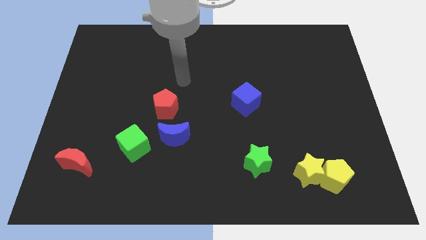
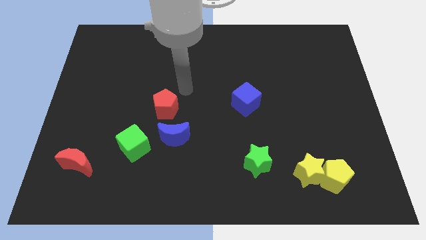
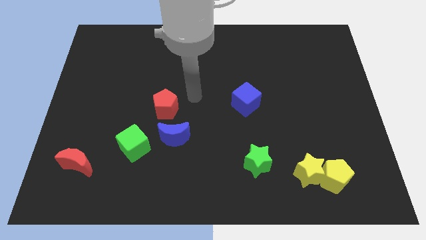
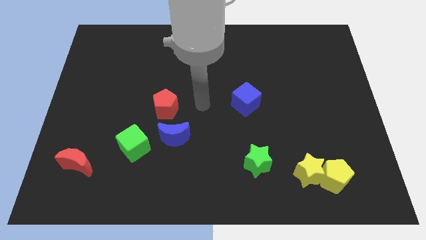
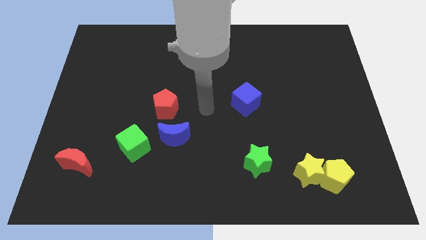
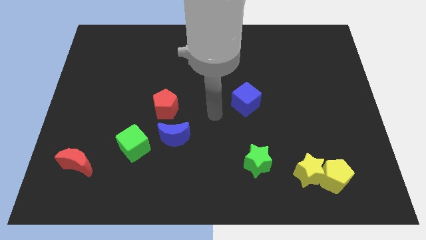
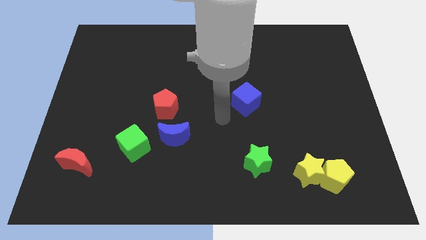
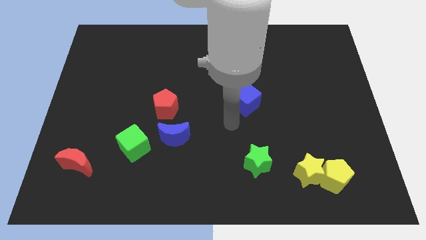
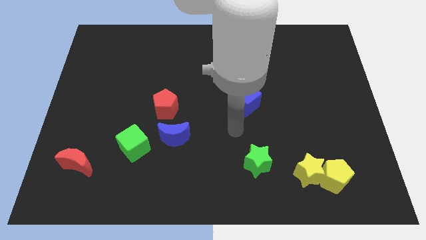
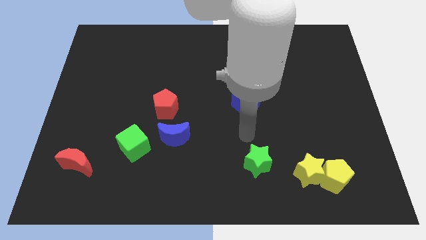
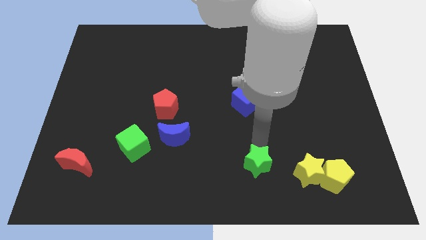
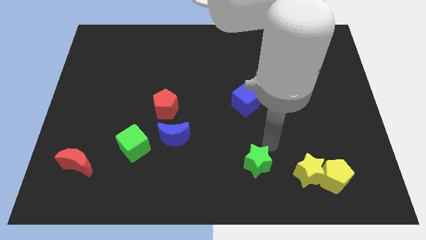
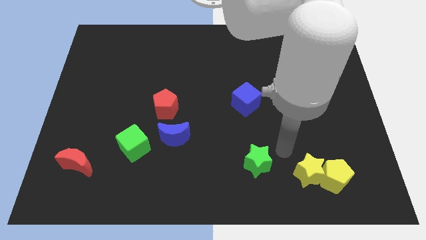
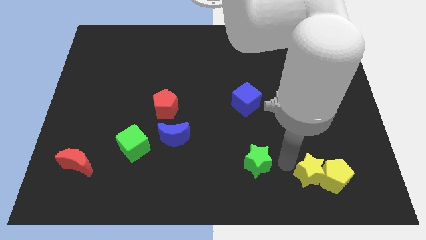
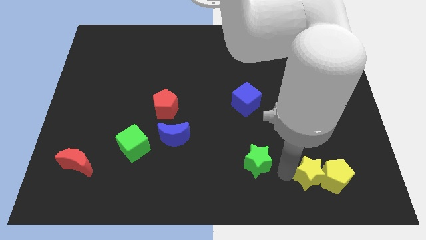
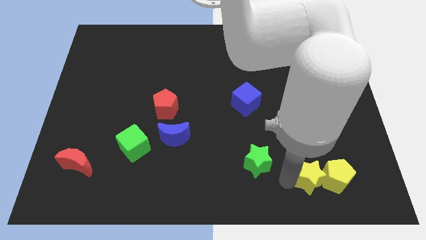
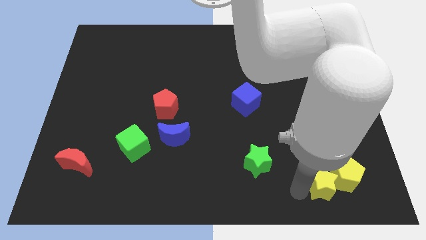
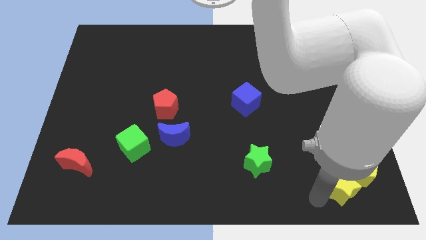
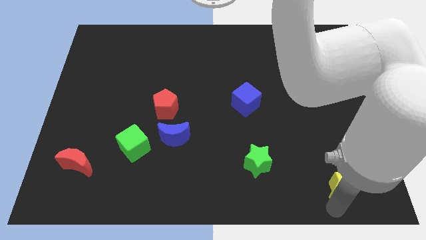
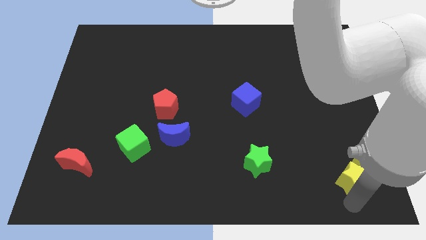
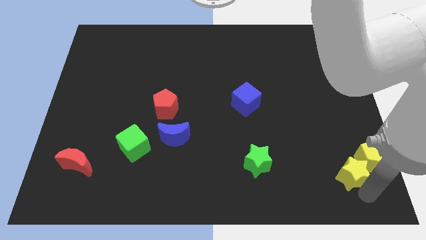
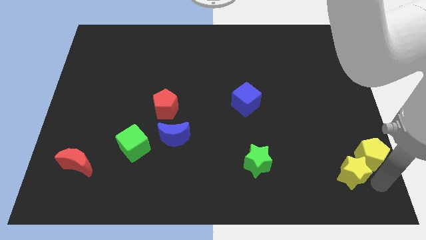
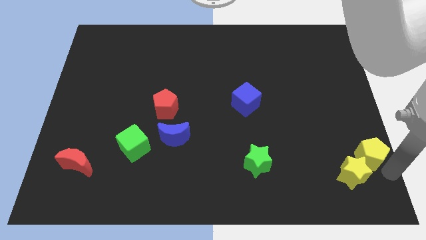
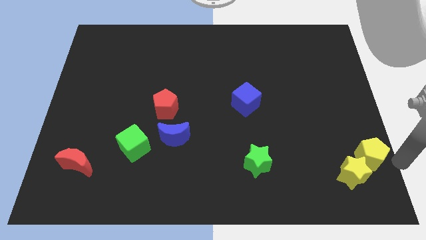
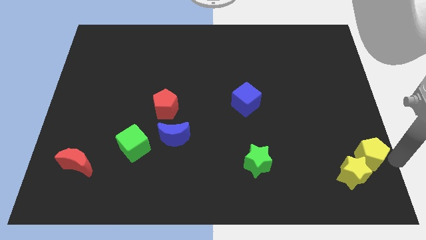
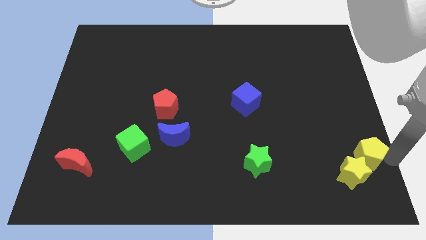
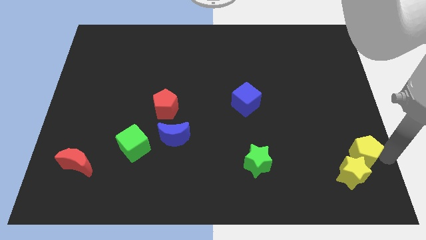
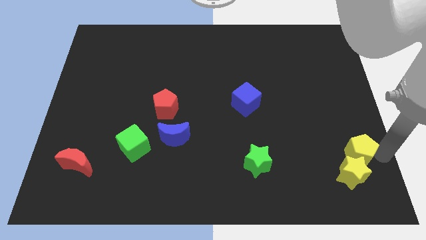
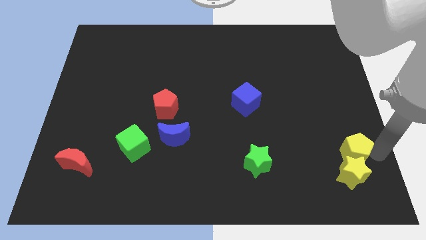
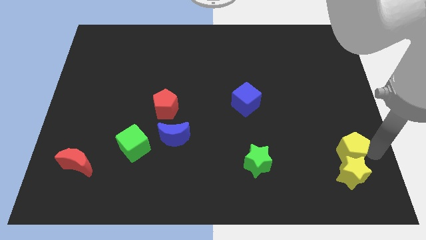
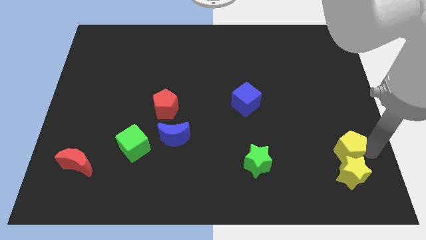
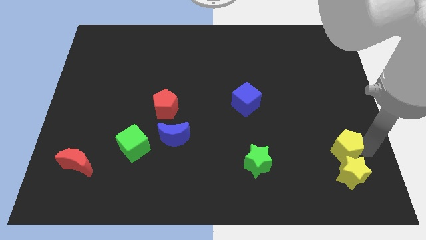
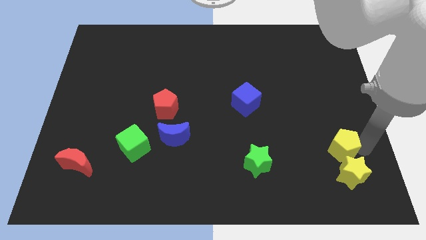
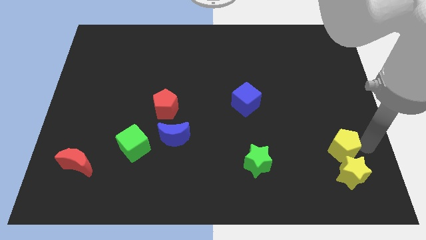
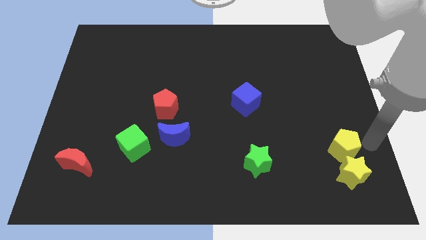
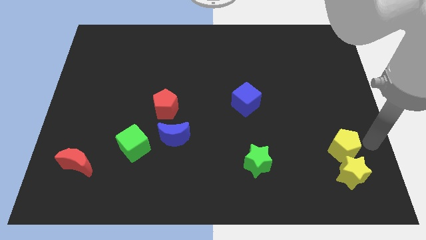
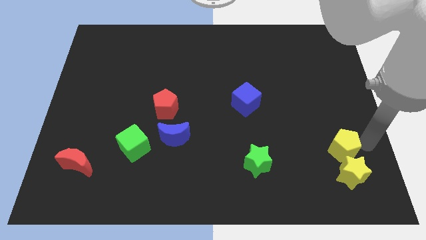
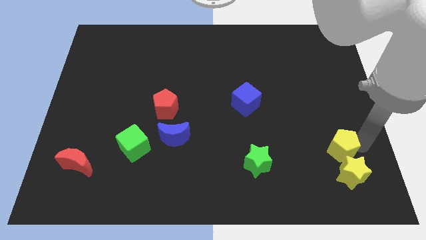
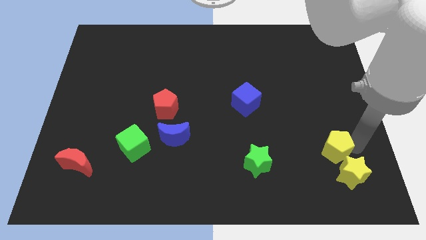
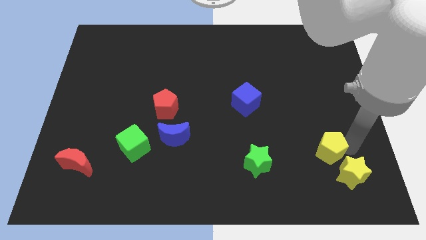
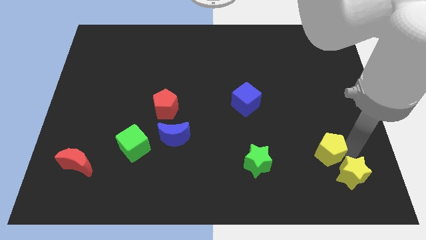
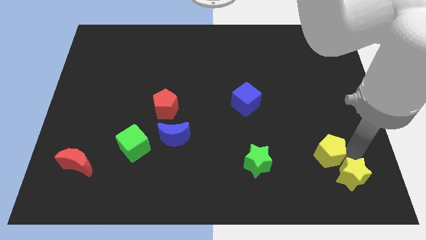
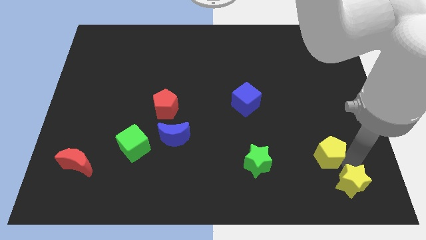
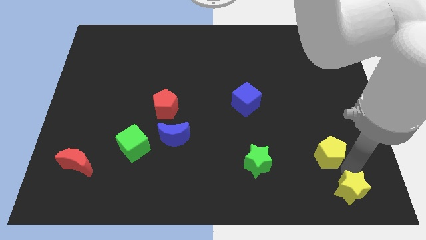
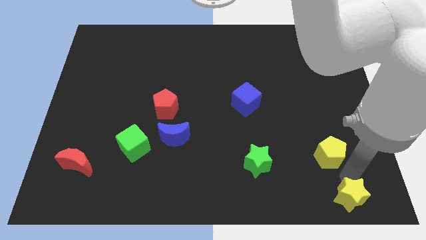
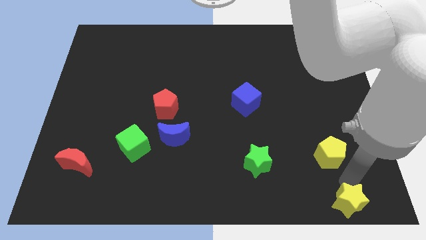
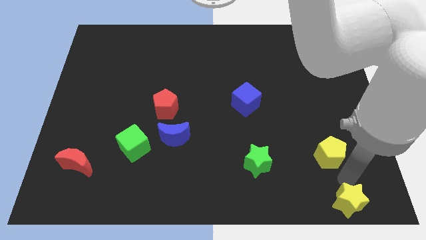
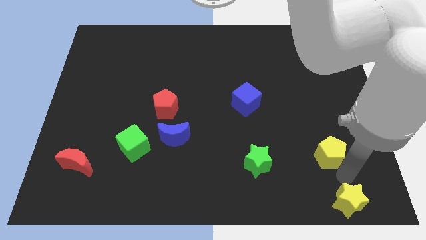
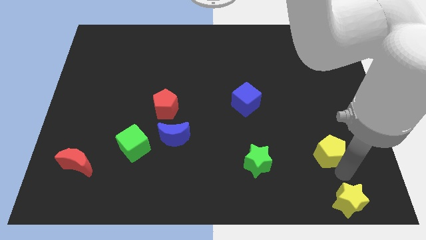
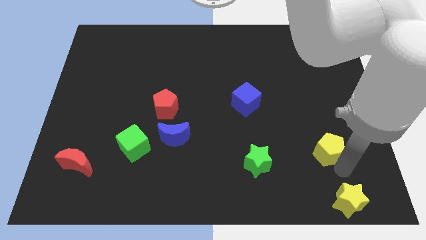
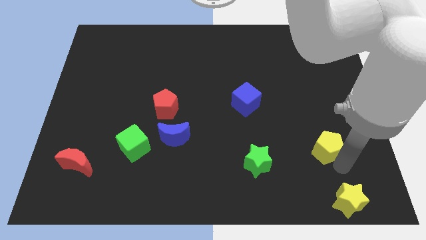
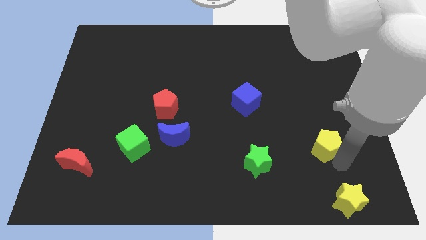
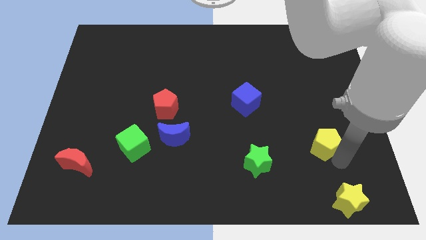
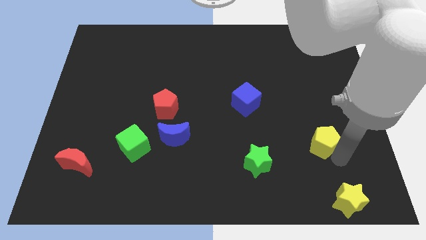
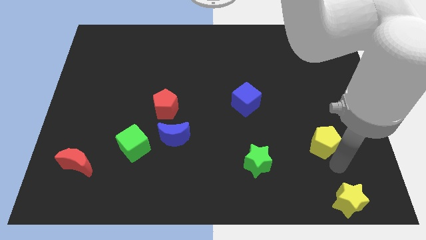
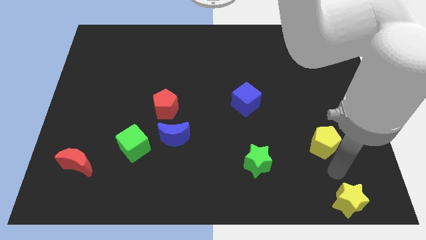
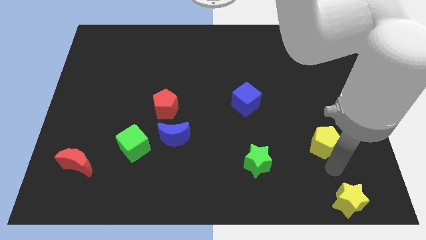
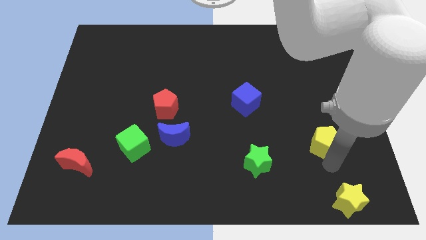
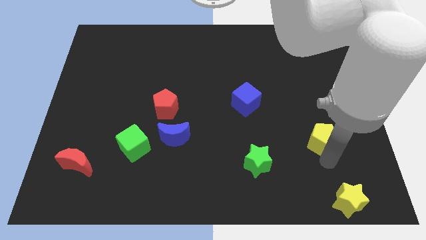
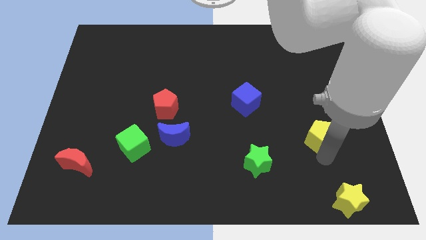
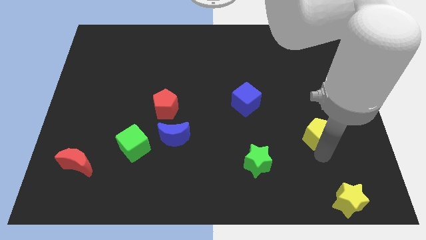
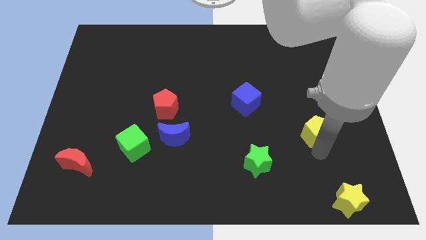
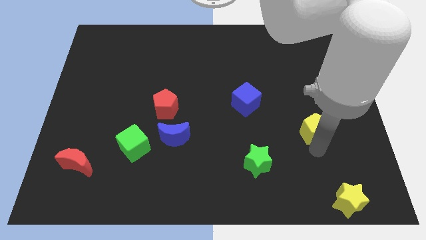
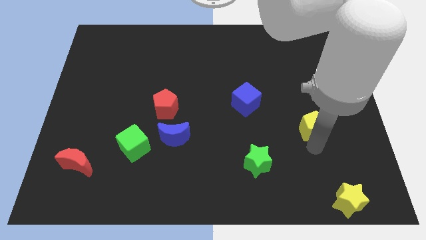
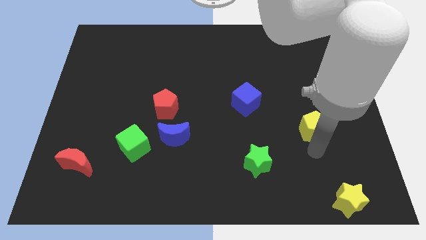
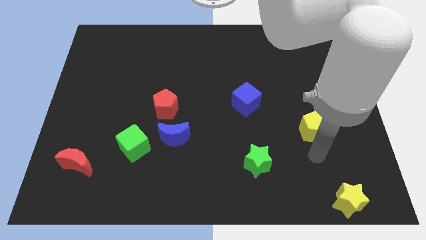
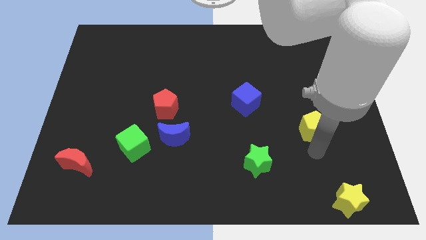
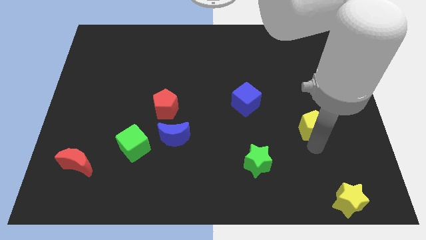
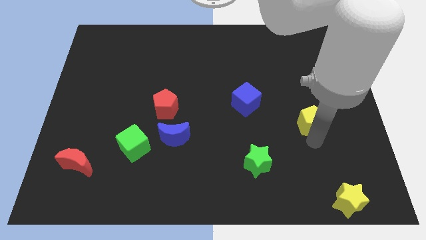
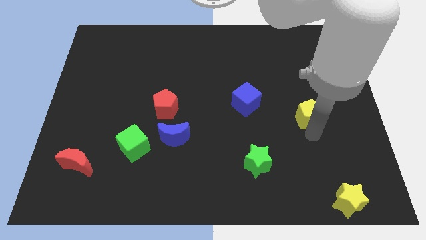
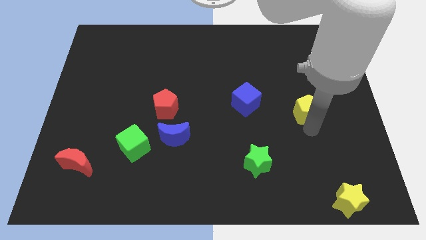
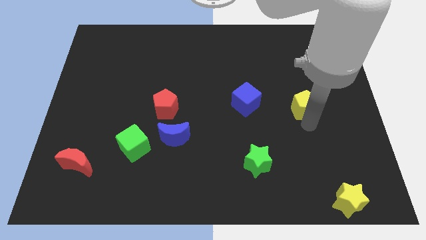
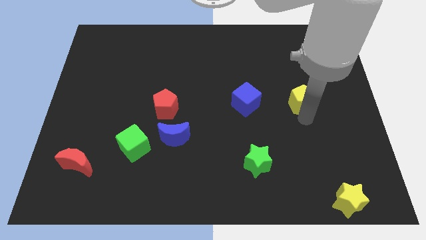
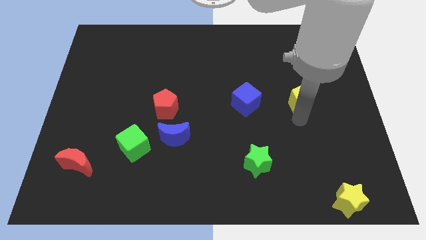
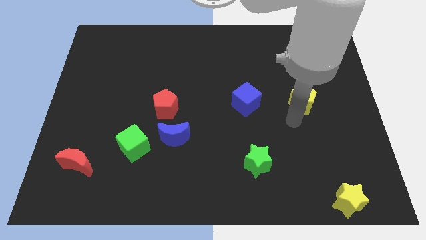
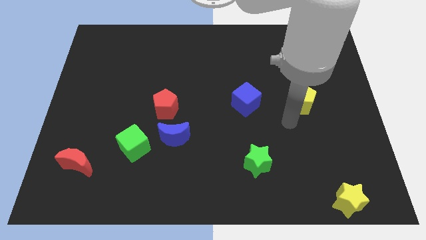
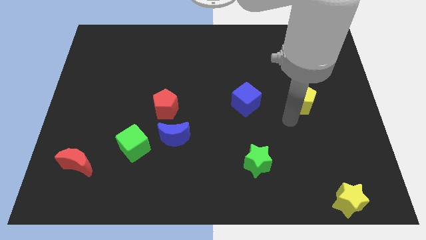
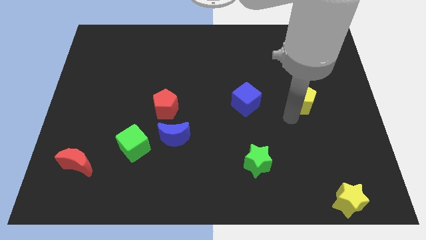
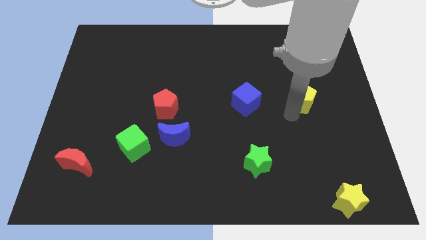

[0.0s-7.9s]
move the yellow pentagon upwards

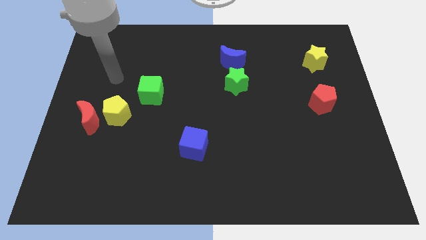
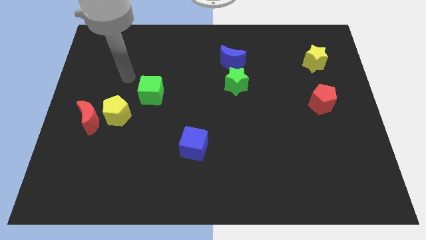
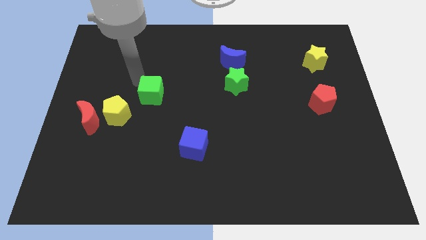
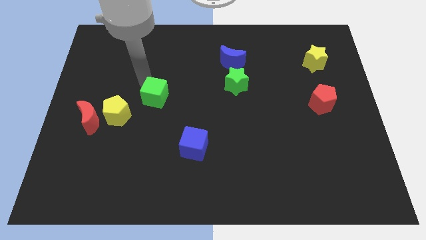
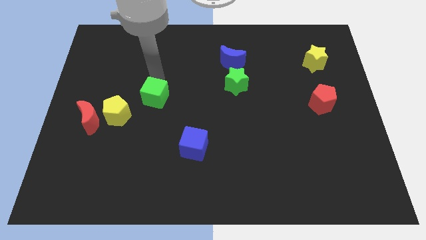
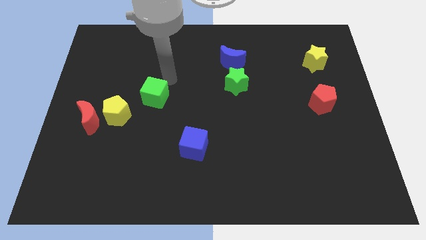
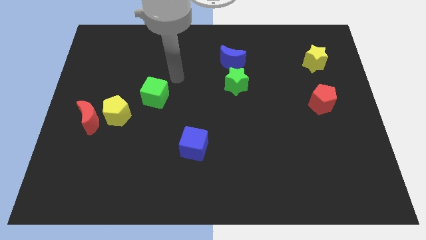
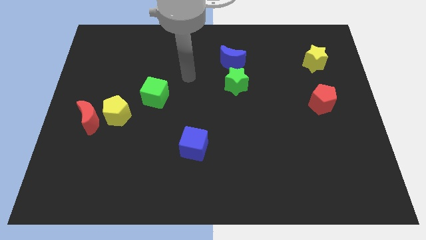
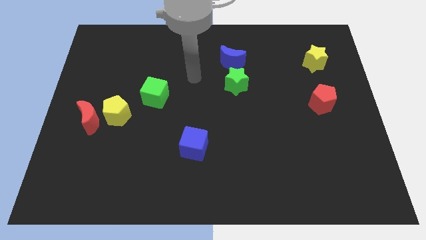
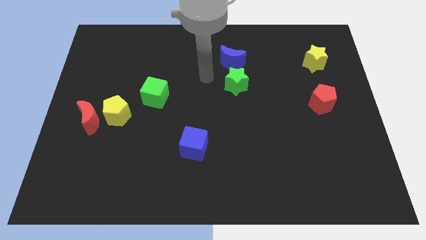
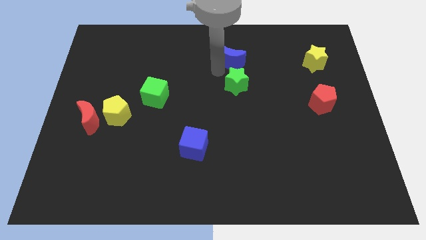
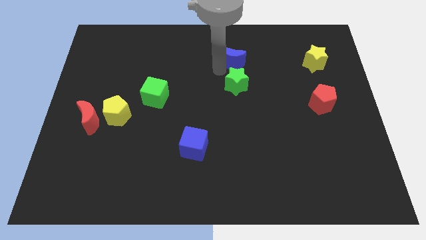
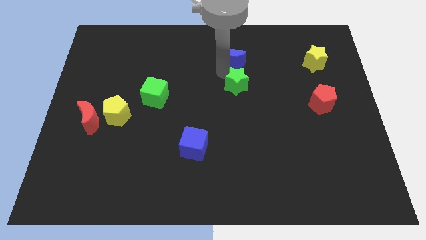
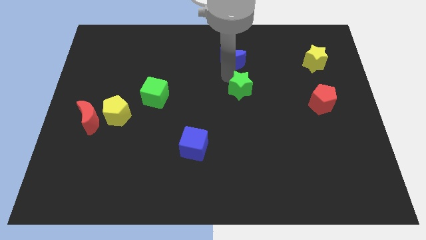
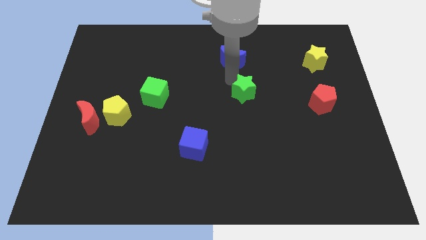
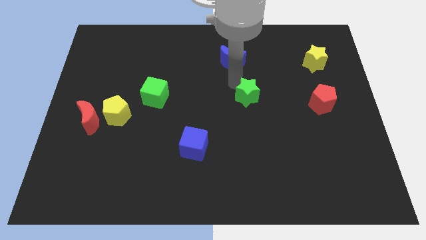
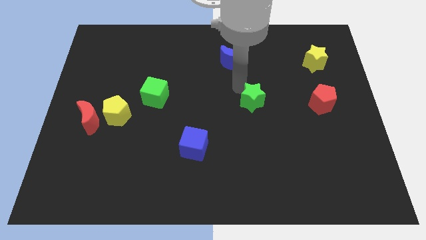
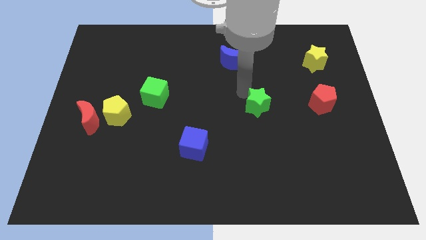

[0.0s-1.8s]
slightly push the green star diagonally downwards and to the right
